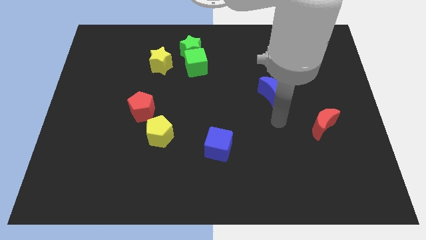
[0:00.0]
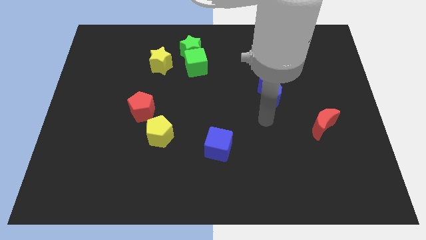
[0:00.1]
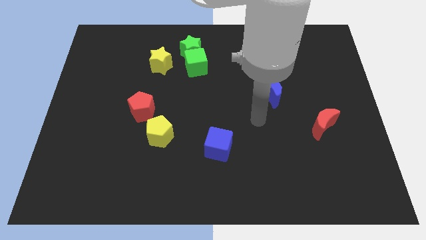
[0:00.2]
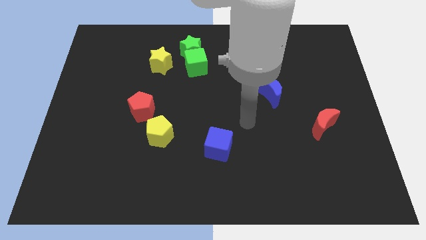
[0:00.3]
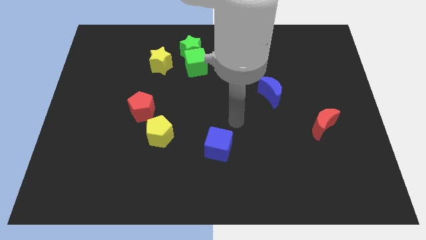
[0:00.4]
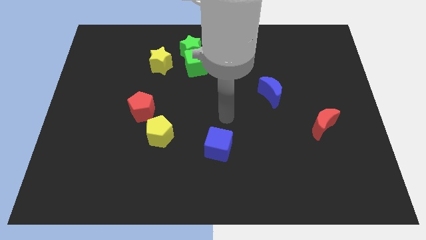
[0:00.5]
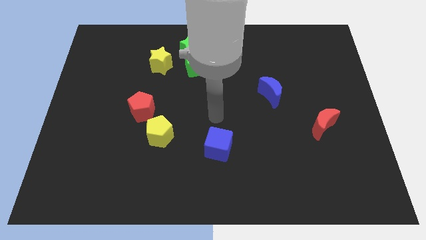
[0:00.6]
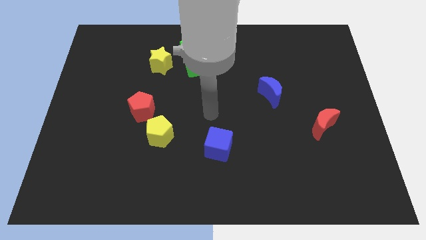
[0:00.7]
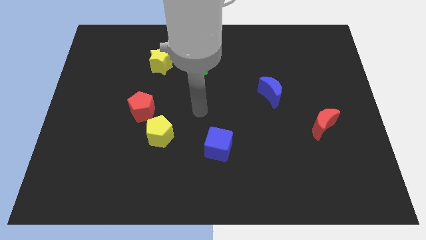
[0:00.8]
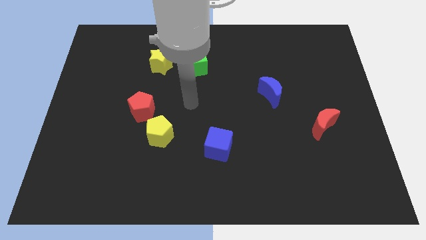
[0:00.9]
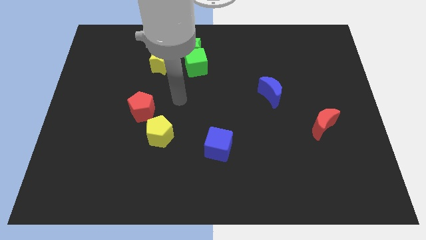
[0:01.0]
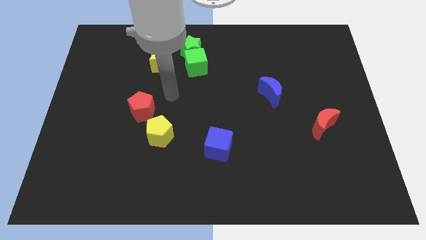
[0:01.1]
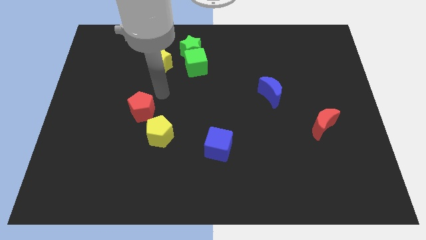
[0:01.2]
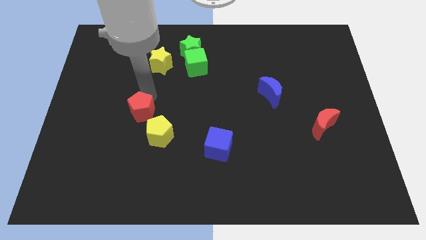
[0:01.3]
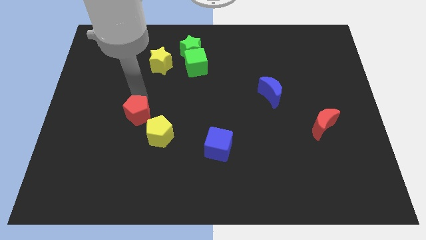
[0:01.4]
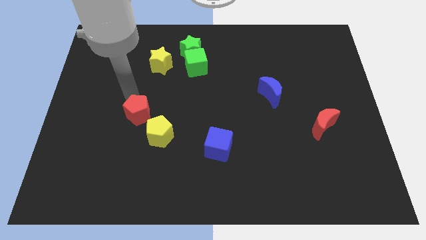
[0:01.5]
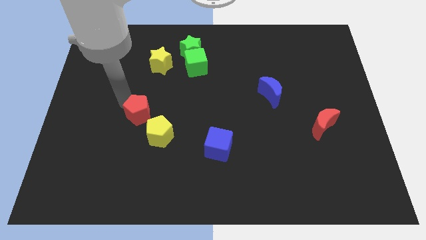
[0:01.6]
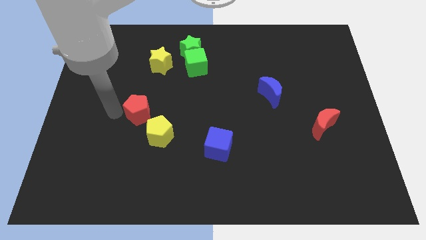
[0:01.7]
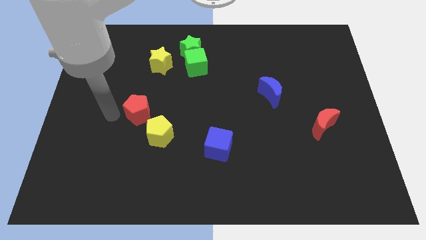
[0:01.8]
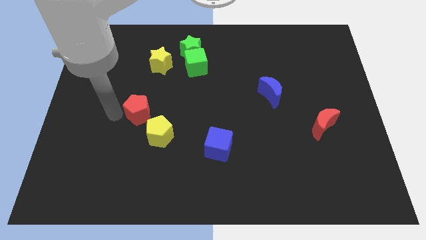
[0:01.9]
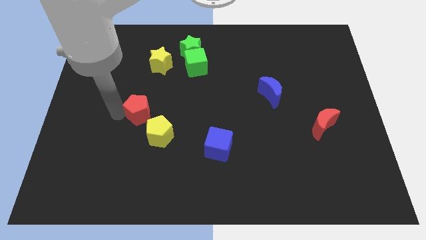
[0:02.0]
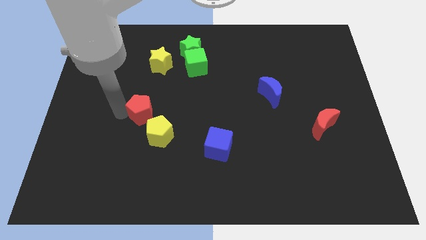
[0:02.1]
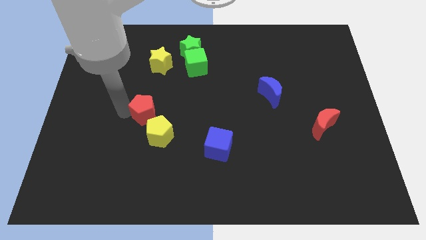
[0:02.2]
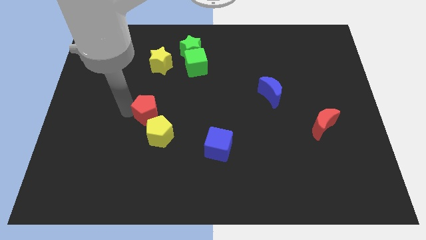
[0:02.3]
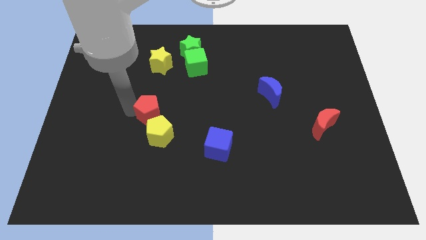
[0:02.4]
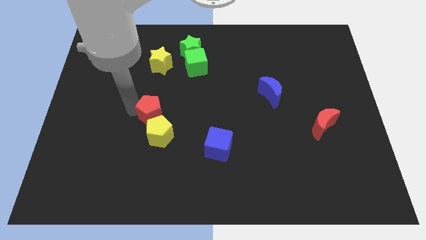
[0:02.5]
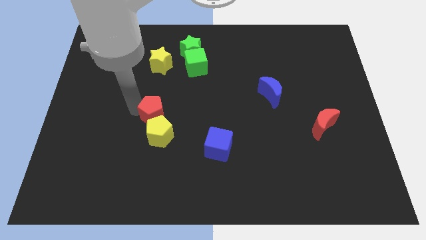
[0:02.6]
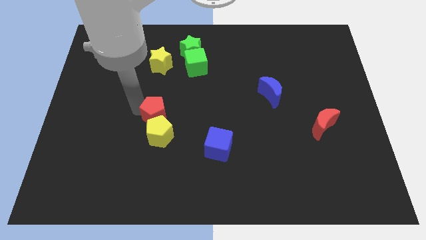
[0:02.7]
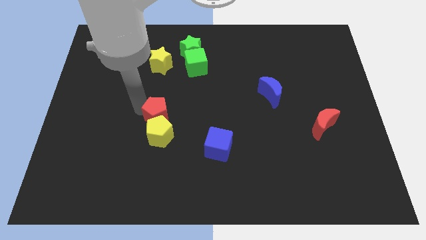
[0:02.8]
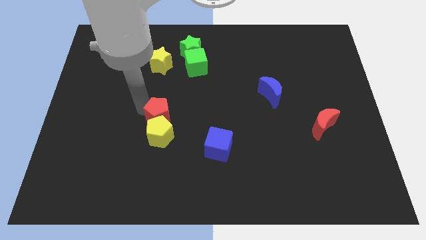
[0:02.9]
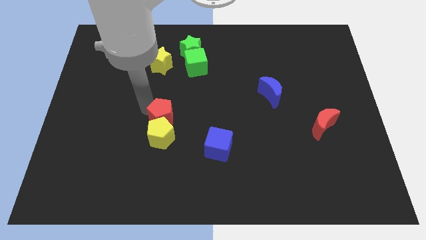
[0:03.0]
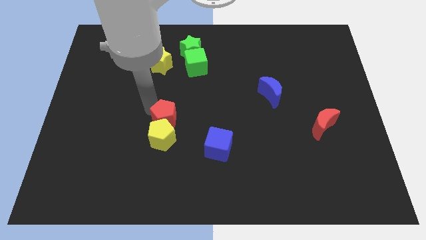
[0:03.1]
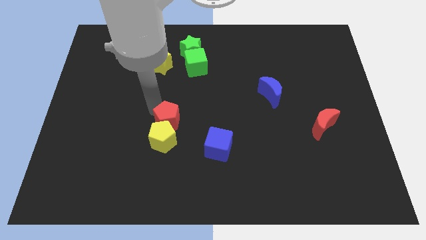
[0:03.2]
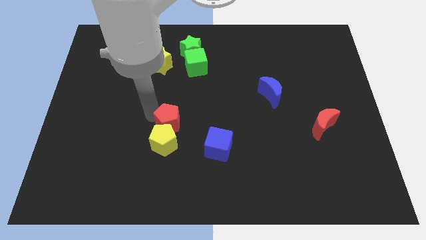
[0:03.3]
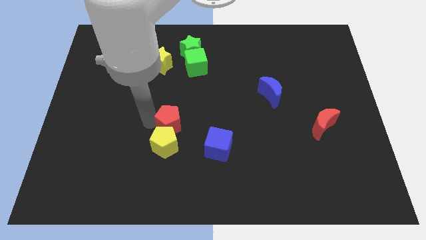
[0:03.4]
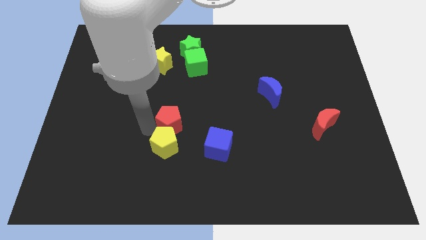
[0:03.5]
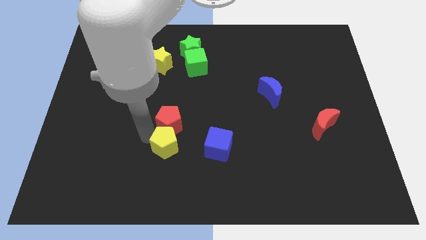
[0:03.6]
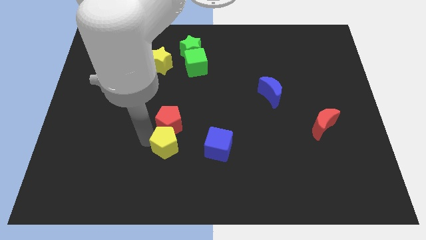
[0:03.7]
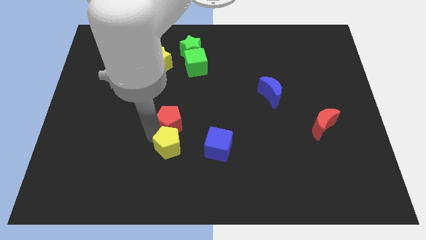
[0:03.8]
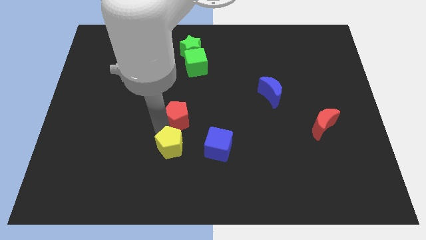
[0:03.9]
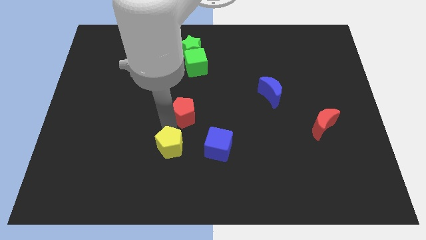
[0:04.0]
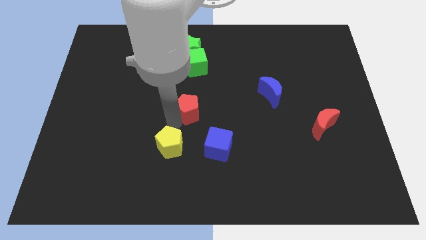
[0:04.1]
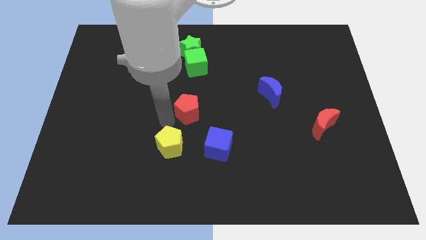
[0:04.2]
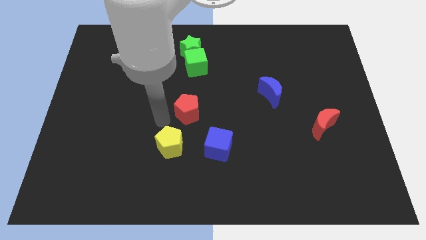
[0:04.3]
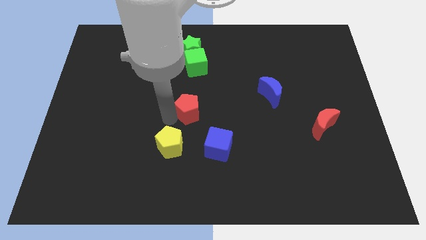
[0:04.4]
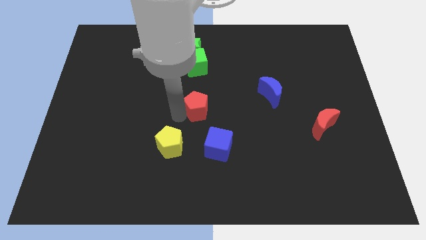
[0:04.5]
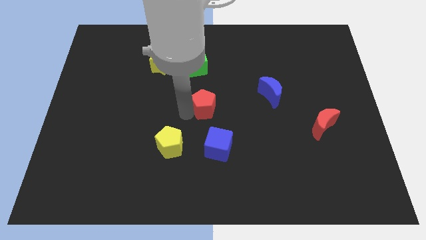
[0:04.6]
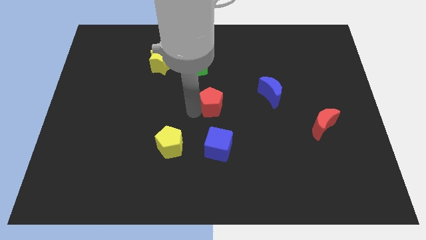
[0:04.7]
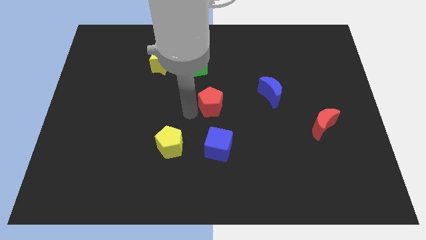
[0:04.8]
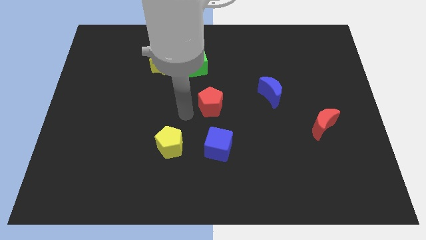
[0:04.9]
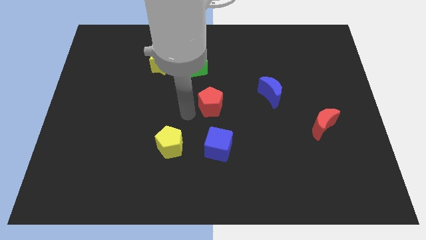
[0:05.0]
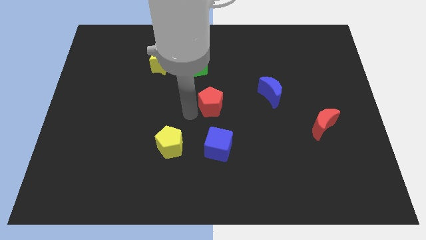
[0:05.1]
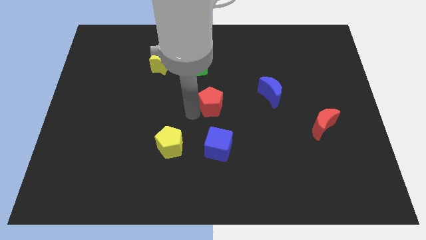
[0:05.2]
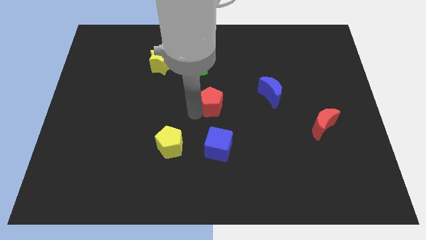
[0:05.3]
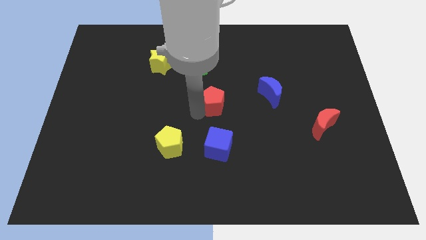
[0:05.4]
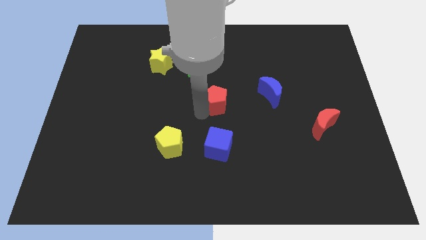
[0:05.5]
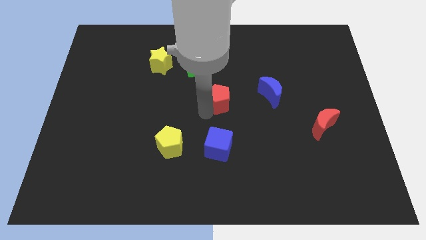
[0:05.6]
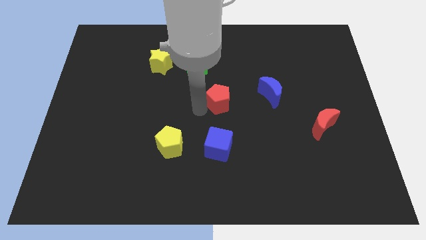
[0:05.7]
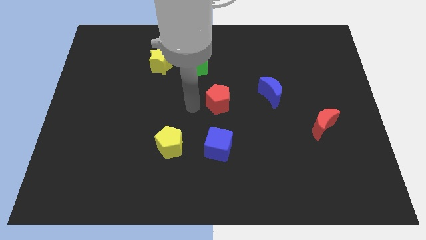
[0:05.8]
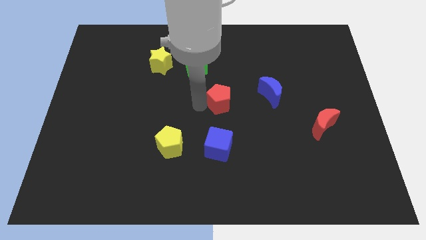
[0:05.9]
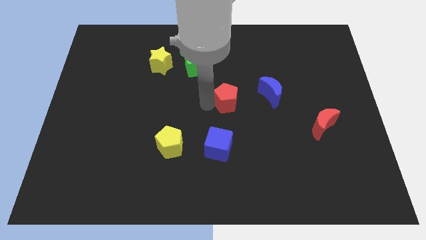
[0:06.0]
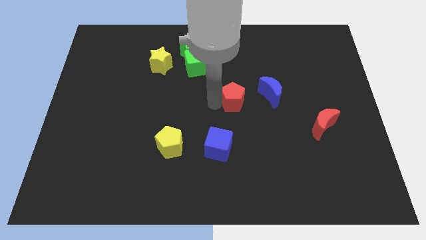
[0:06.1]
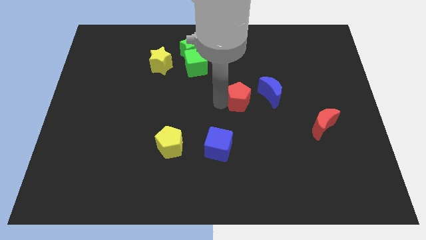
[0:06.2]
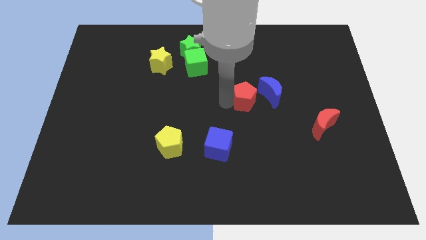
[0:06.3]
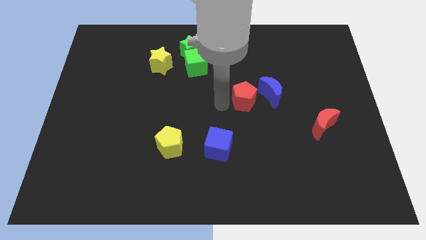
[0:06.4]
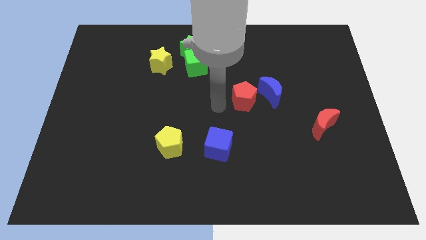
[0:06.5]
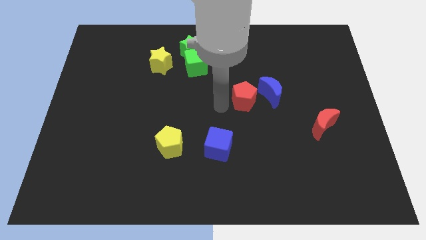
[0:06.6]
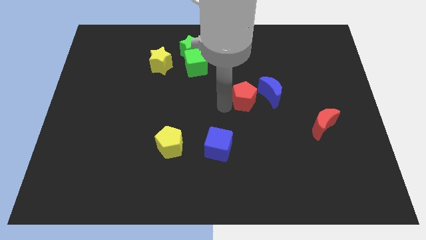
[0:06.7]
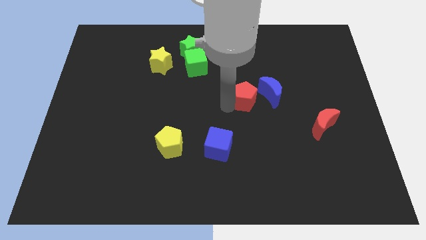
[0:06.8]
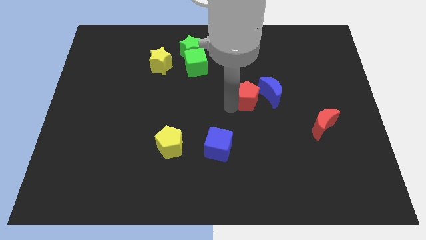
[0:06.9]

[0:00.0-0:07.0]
put the red pentagon towards the blue moon
